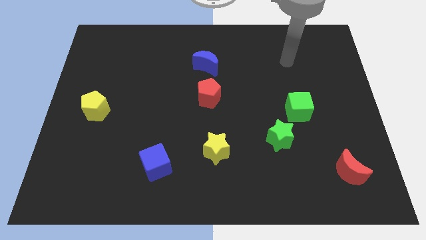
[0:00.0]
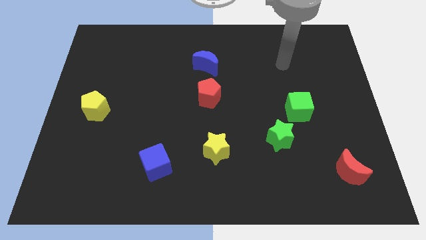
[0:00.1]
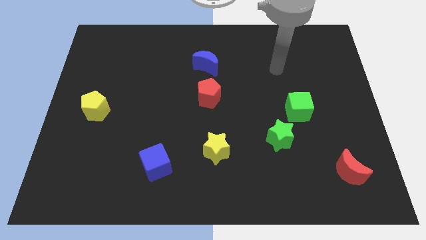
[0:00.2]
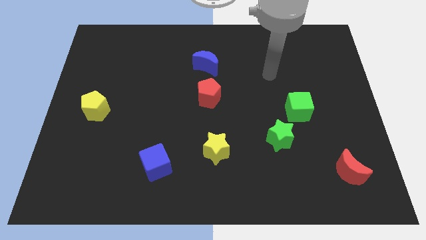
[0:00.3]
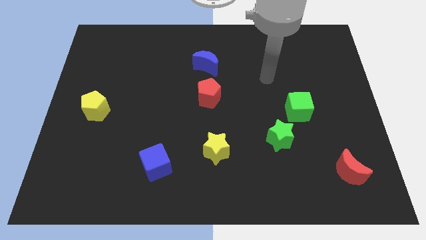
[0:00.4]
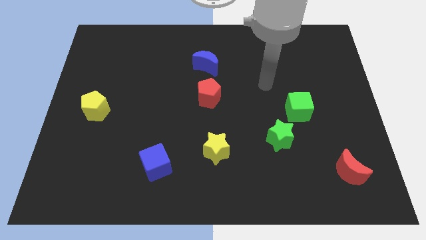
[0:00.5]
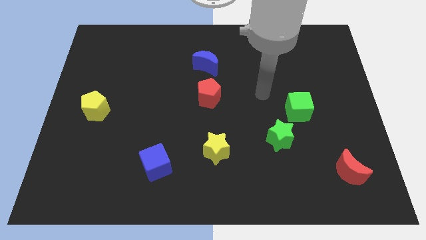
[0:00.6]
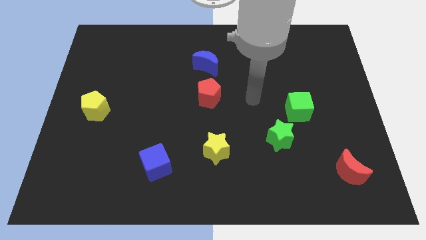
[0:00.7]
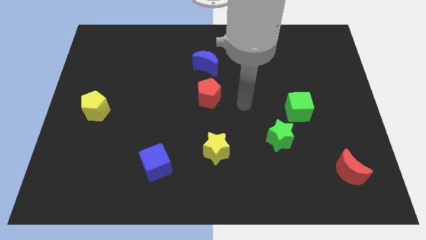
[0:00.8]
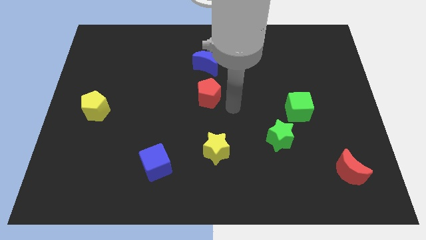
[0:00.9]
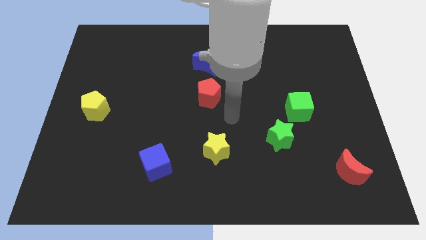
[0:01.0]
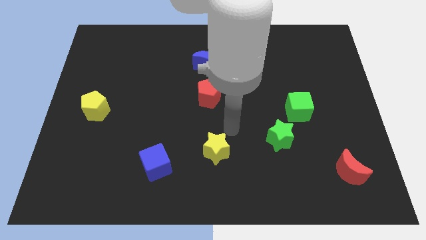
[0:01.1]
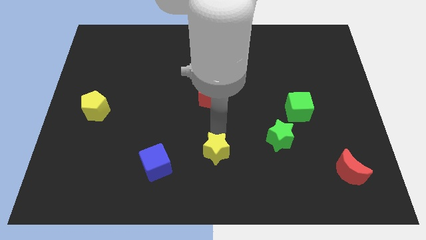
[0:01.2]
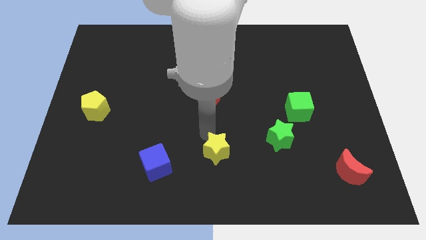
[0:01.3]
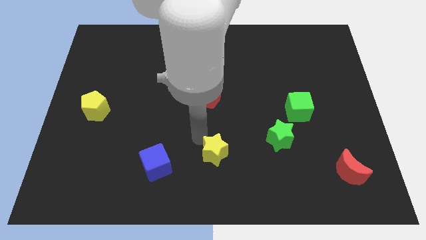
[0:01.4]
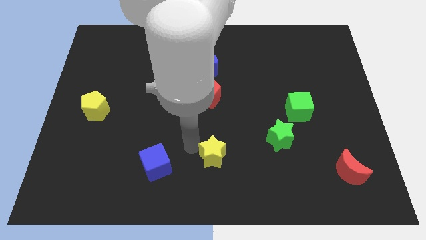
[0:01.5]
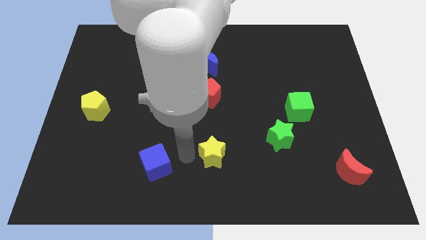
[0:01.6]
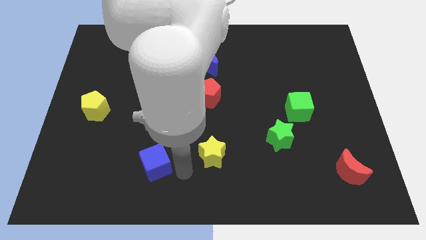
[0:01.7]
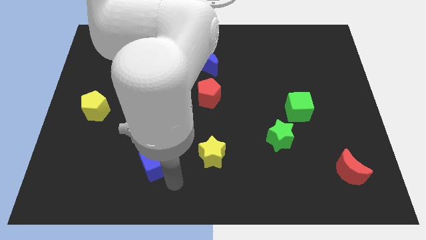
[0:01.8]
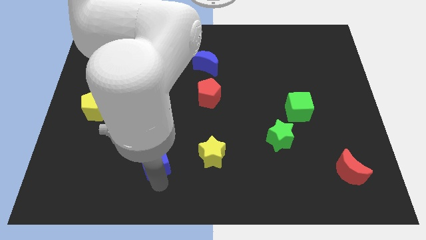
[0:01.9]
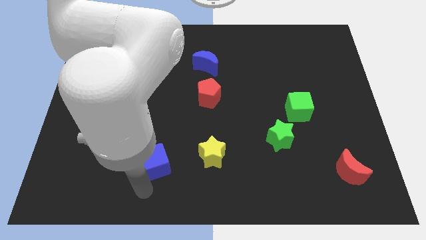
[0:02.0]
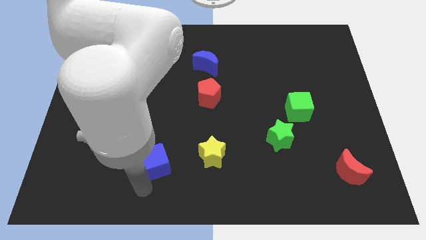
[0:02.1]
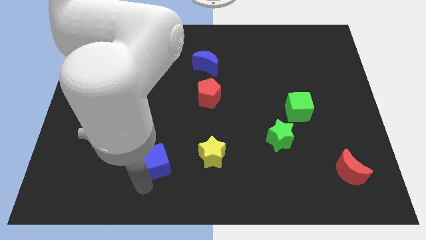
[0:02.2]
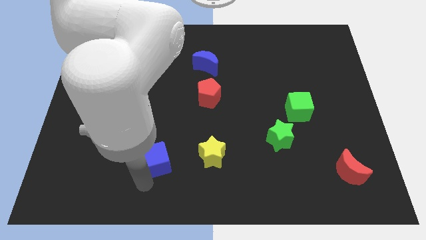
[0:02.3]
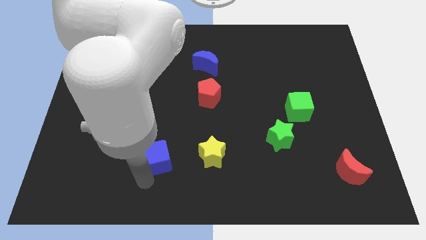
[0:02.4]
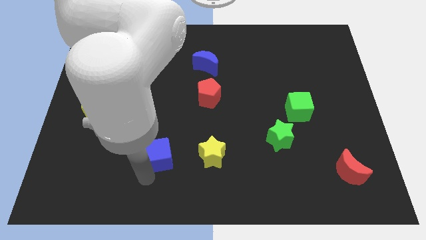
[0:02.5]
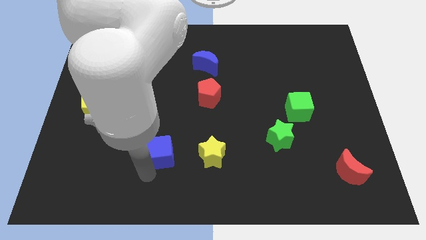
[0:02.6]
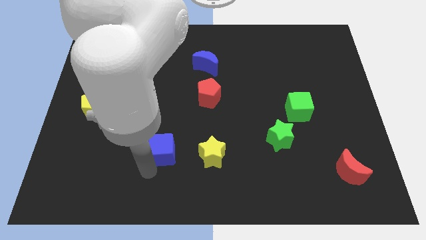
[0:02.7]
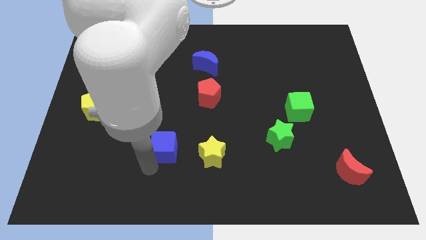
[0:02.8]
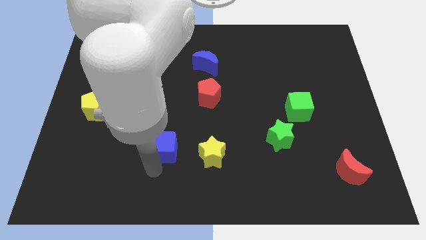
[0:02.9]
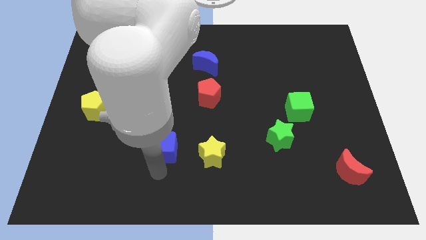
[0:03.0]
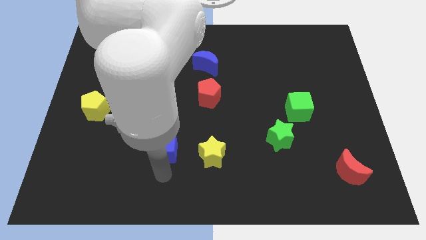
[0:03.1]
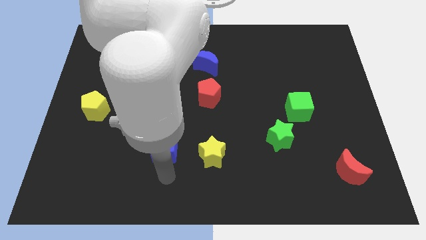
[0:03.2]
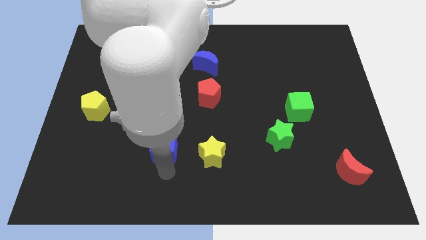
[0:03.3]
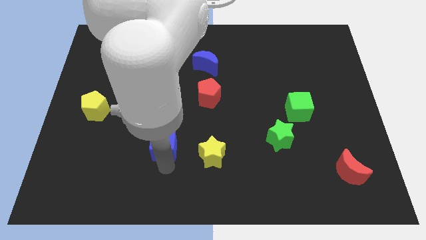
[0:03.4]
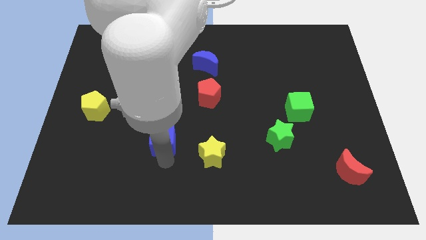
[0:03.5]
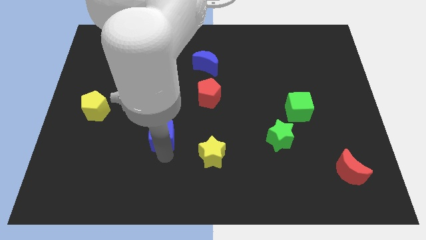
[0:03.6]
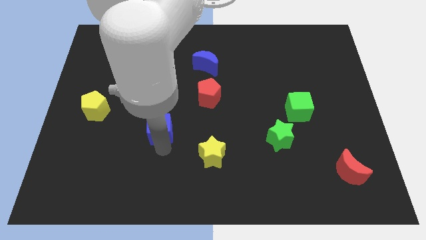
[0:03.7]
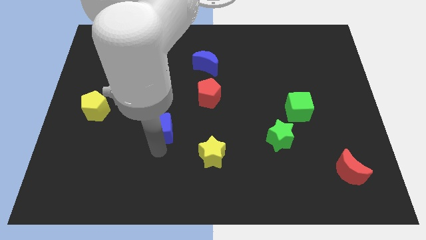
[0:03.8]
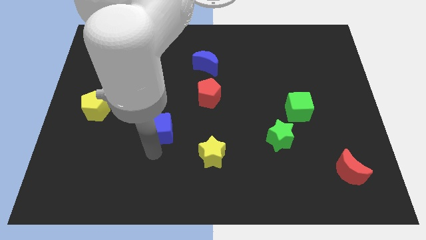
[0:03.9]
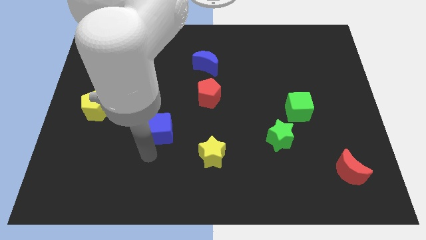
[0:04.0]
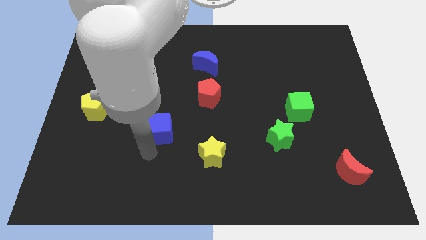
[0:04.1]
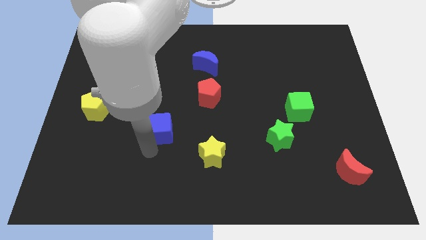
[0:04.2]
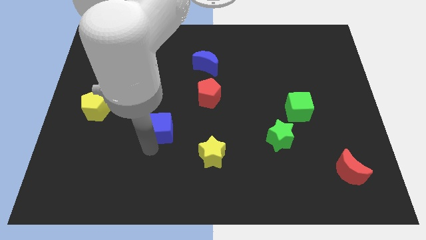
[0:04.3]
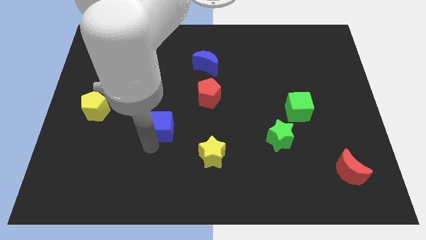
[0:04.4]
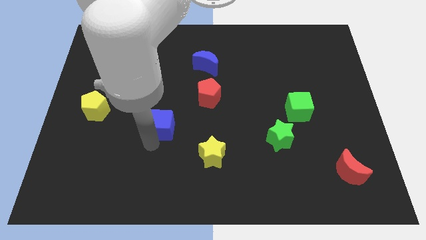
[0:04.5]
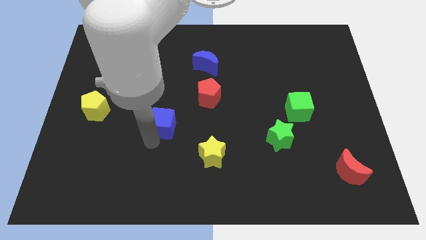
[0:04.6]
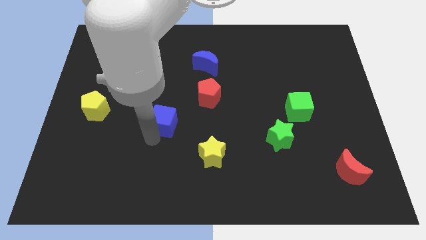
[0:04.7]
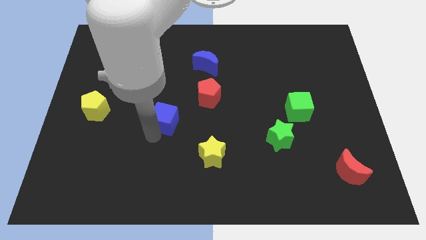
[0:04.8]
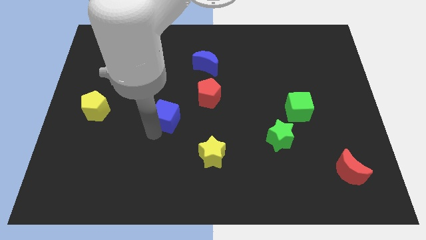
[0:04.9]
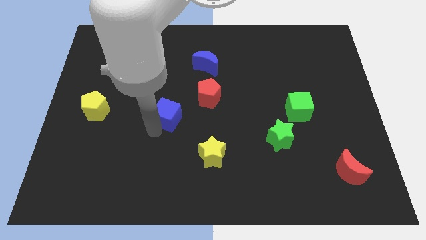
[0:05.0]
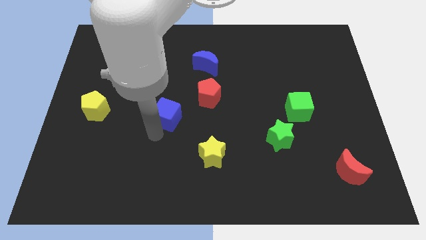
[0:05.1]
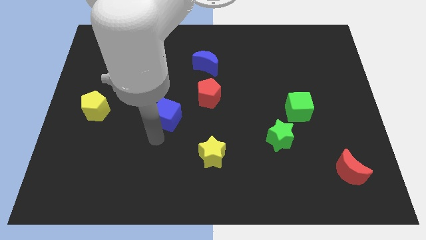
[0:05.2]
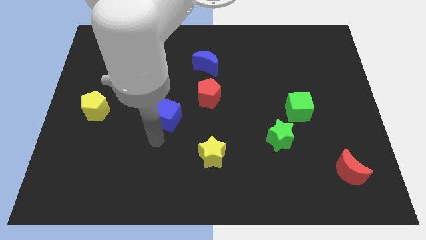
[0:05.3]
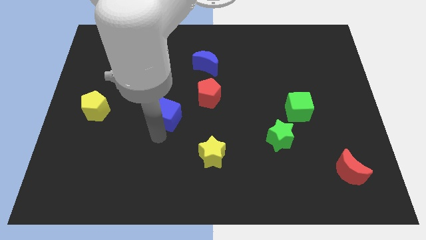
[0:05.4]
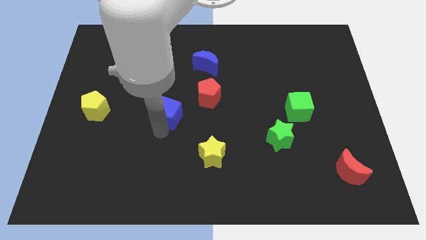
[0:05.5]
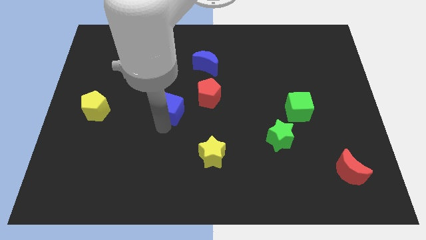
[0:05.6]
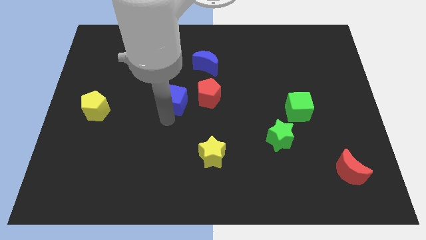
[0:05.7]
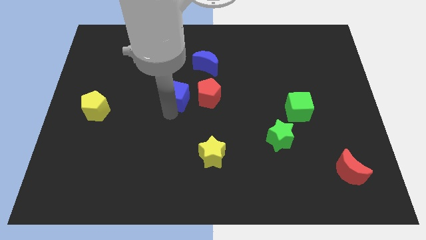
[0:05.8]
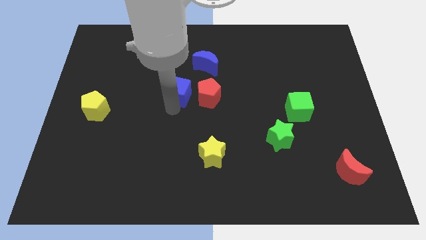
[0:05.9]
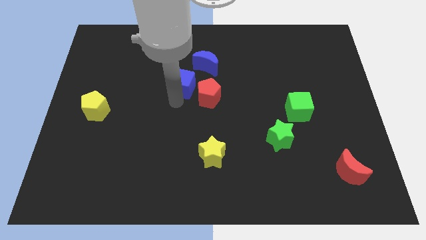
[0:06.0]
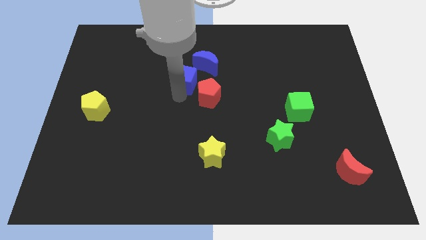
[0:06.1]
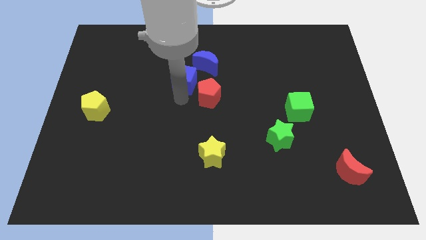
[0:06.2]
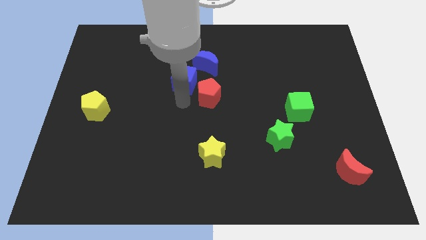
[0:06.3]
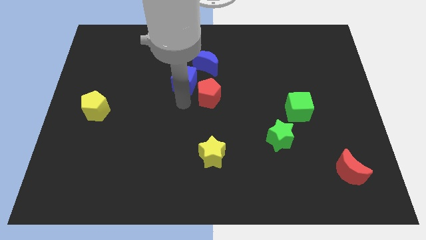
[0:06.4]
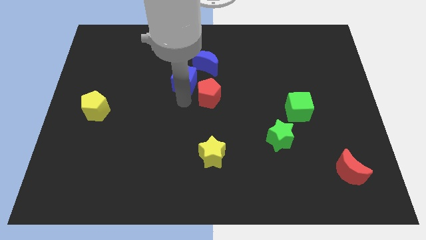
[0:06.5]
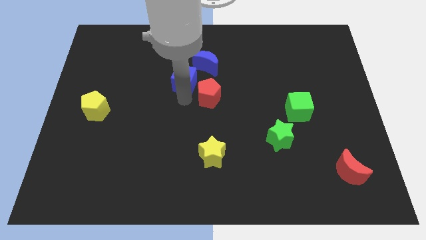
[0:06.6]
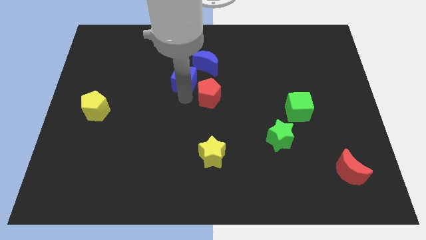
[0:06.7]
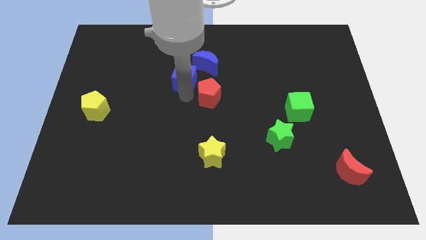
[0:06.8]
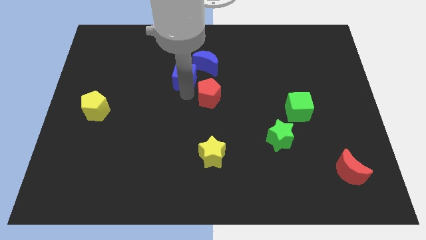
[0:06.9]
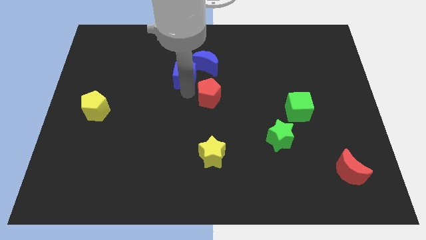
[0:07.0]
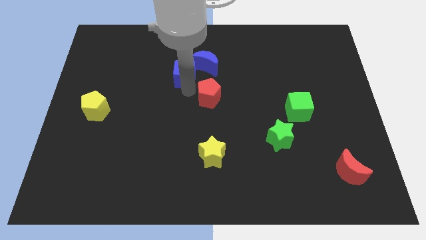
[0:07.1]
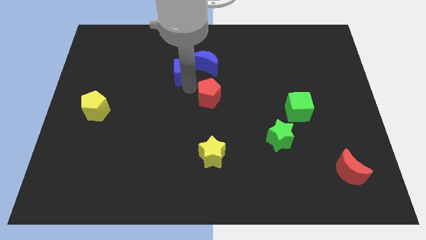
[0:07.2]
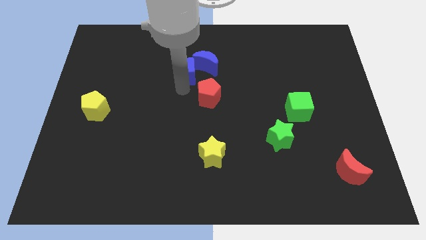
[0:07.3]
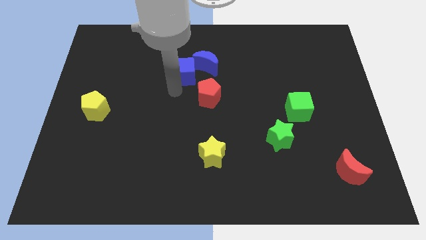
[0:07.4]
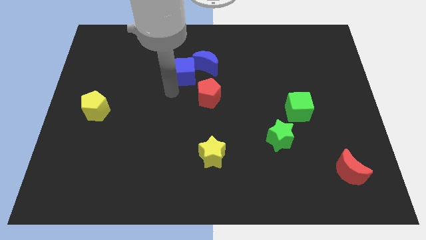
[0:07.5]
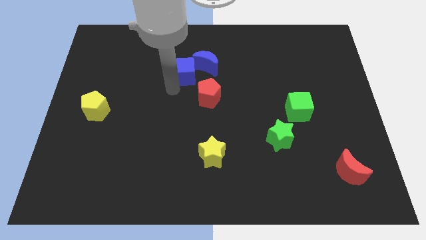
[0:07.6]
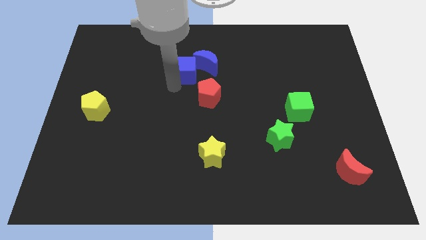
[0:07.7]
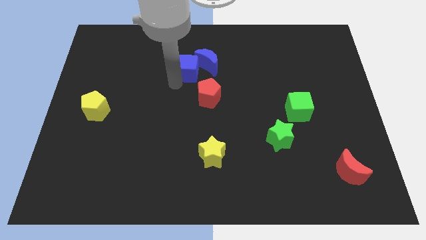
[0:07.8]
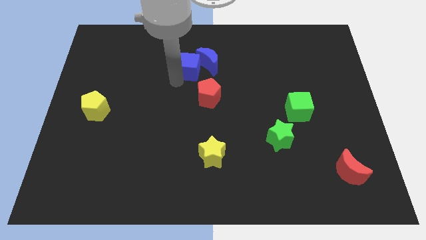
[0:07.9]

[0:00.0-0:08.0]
move the blue cube to the top side of the red pentagon
